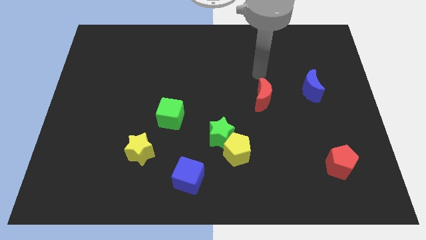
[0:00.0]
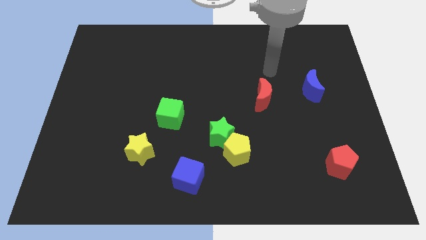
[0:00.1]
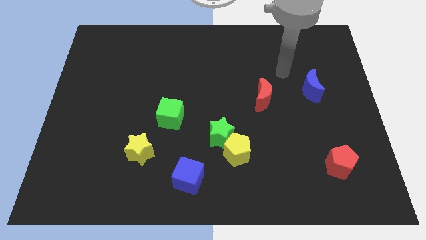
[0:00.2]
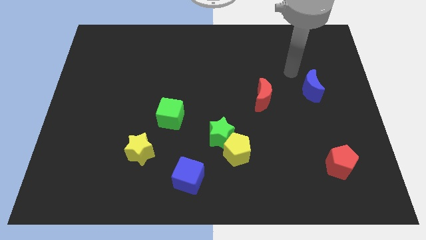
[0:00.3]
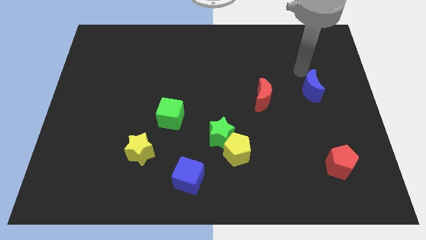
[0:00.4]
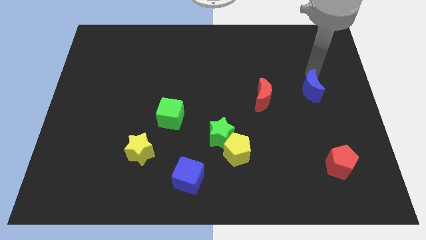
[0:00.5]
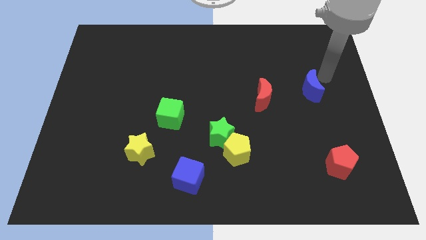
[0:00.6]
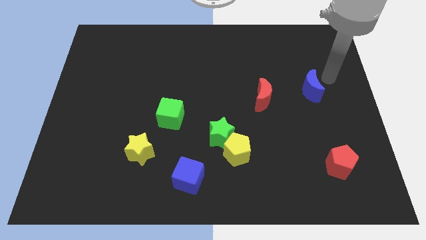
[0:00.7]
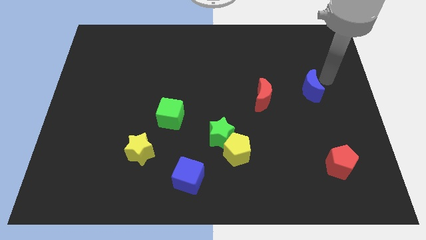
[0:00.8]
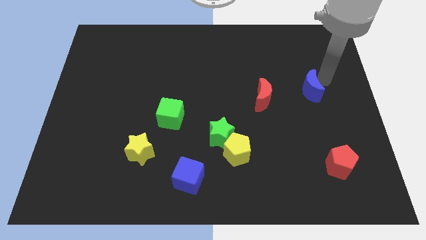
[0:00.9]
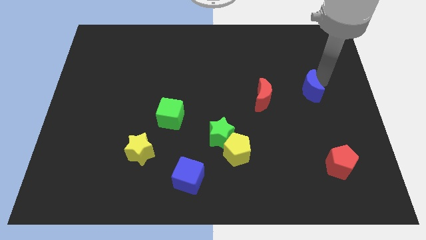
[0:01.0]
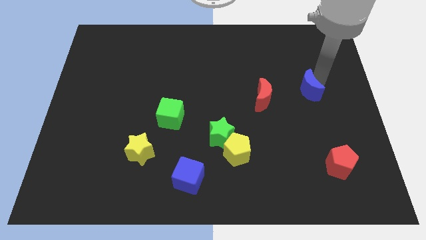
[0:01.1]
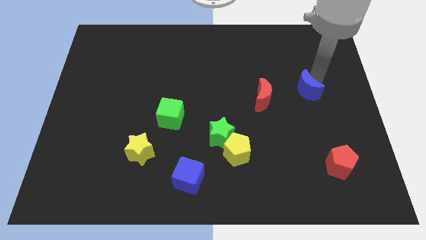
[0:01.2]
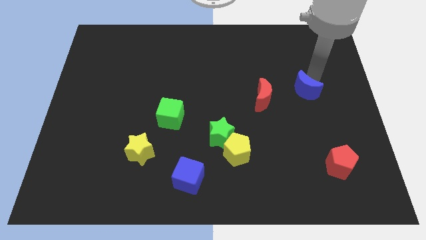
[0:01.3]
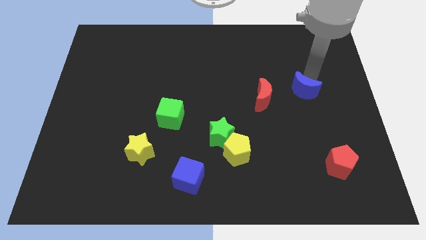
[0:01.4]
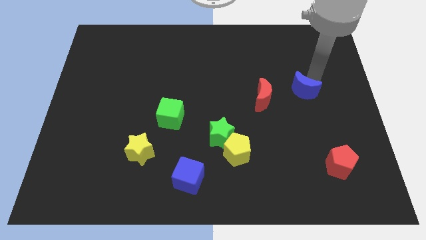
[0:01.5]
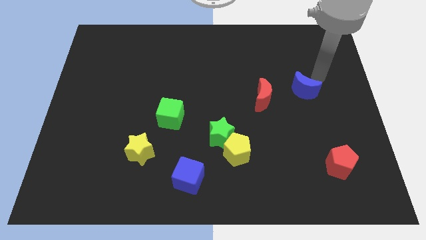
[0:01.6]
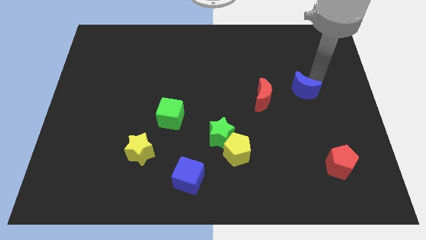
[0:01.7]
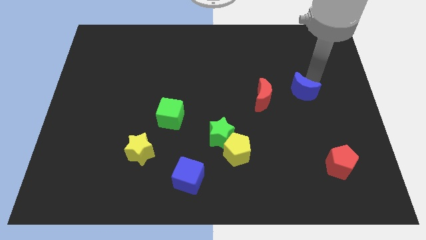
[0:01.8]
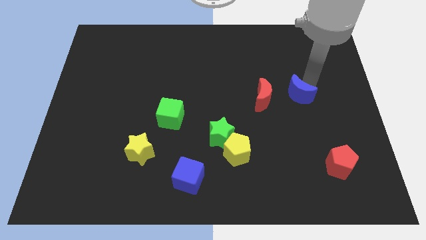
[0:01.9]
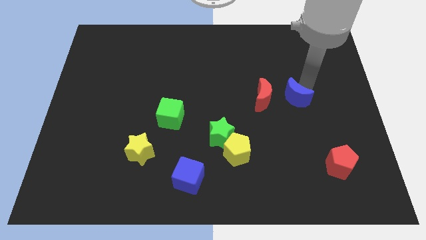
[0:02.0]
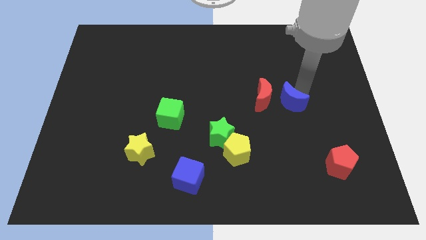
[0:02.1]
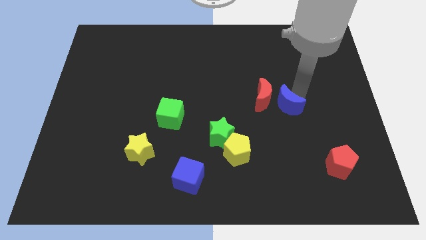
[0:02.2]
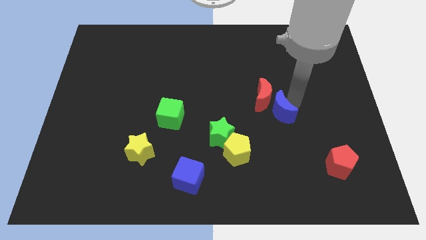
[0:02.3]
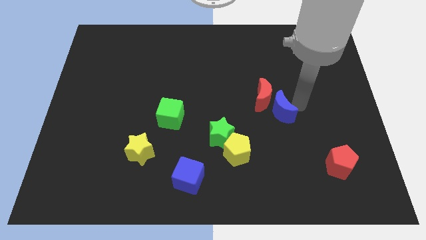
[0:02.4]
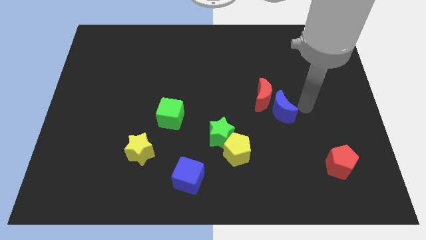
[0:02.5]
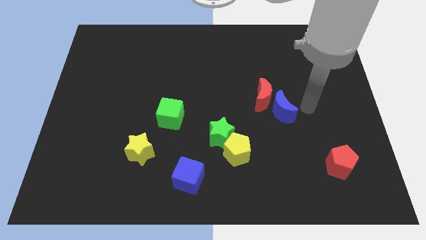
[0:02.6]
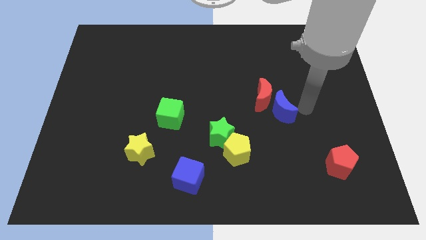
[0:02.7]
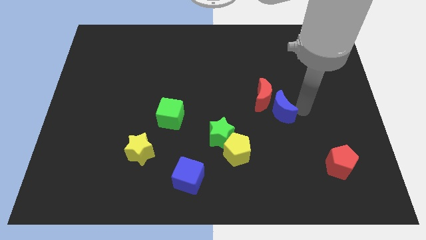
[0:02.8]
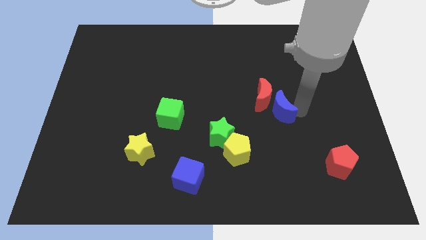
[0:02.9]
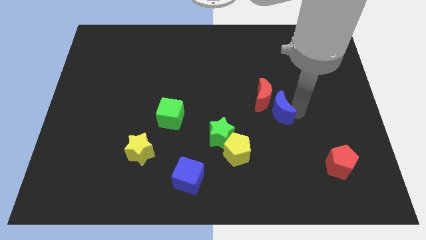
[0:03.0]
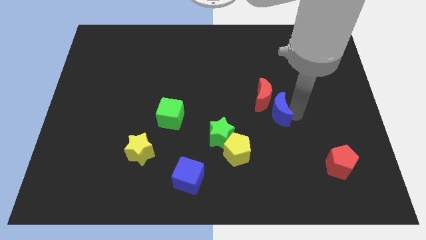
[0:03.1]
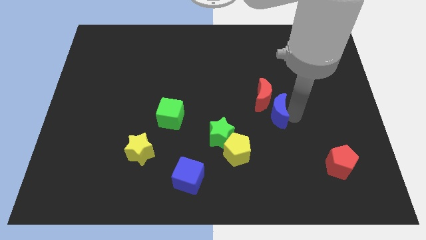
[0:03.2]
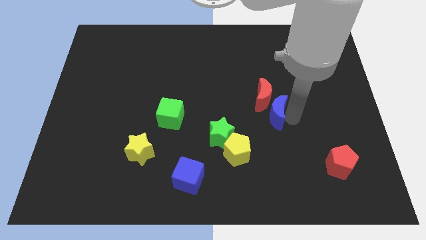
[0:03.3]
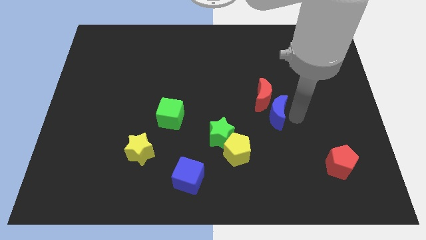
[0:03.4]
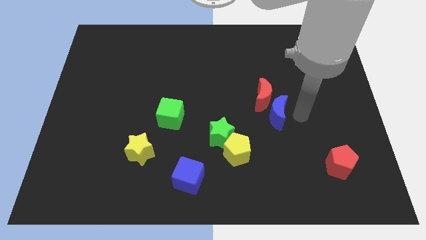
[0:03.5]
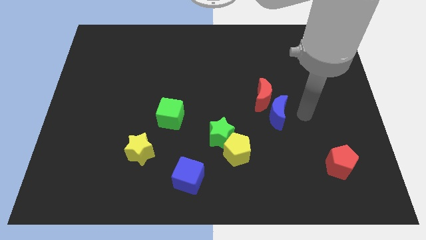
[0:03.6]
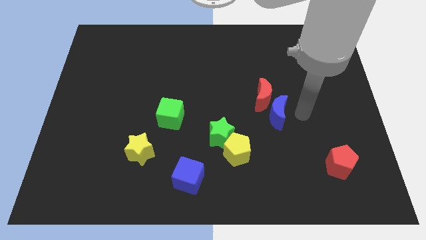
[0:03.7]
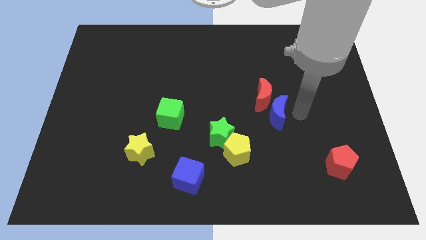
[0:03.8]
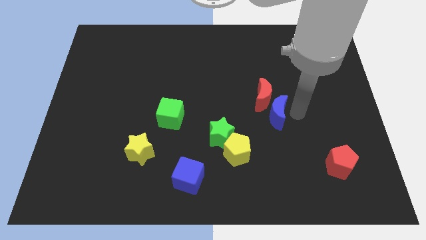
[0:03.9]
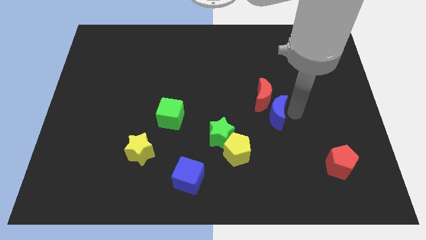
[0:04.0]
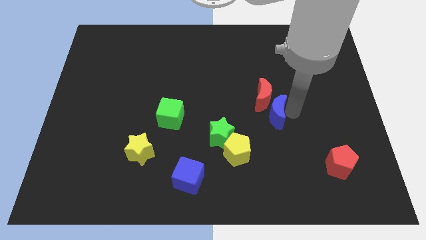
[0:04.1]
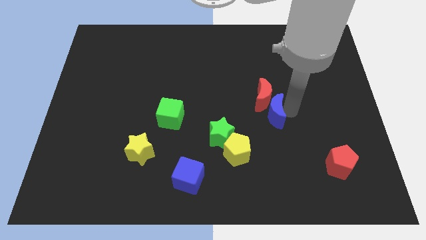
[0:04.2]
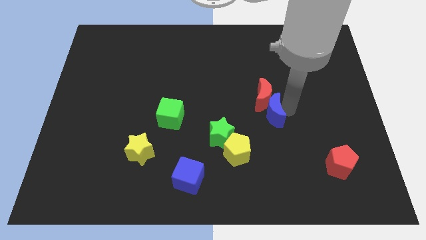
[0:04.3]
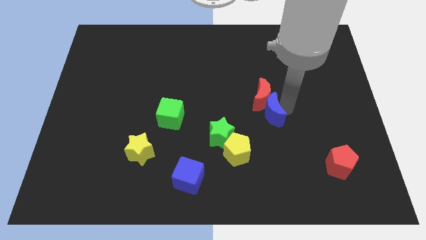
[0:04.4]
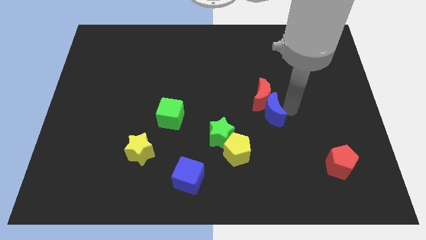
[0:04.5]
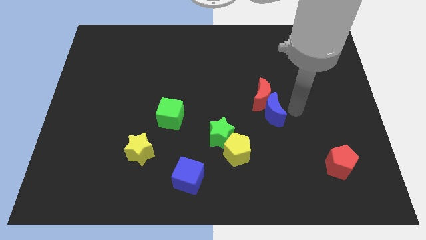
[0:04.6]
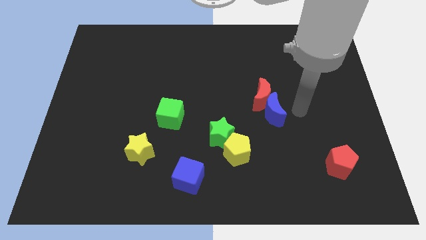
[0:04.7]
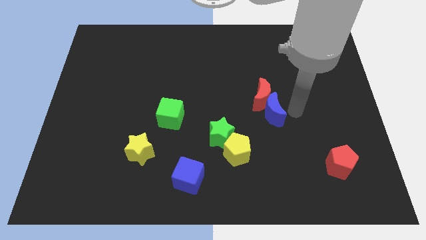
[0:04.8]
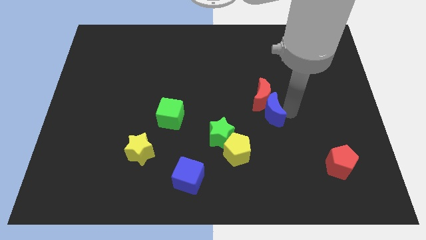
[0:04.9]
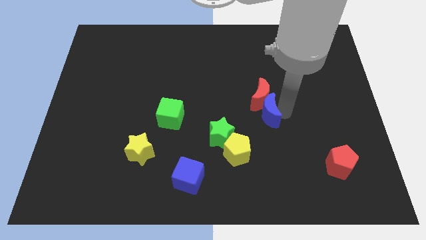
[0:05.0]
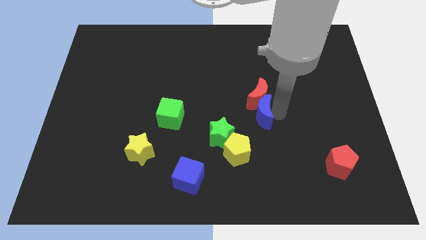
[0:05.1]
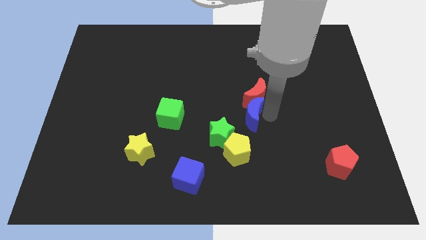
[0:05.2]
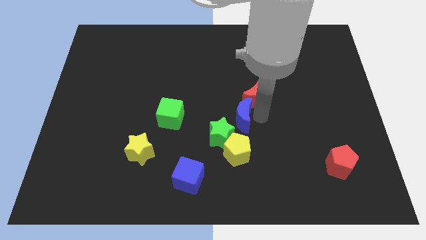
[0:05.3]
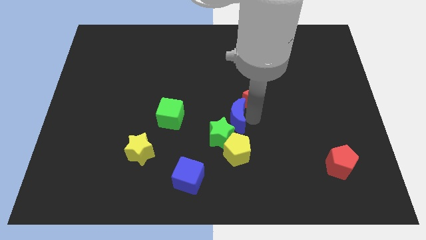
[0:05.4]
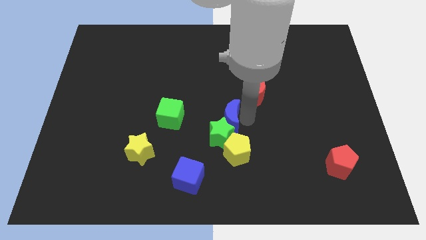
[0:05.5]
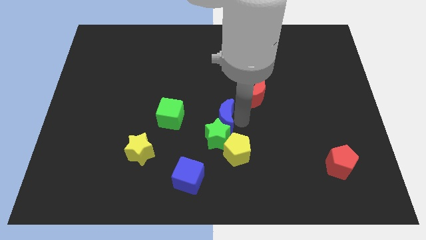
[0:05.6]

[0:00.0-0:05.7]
slide the blue moon to the top left of the yellow pentagon

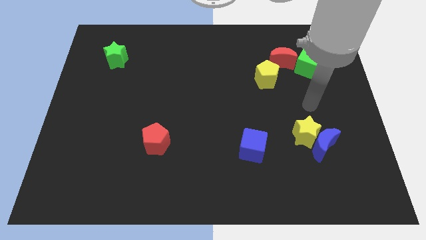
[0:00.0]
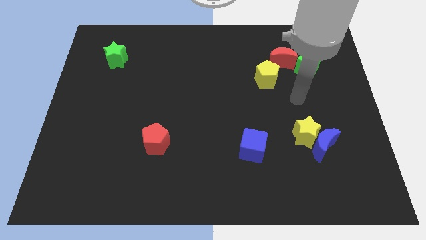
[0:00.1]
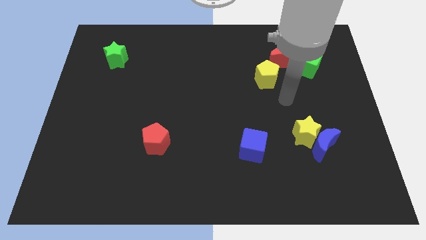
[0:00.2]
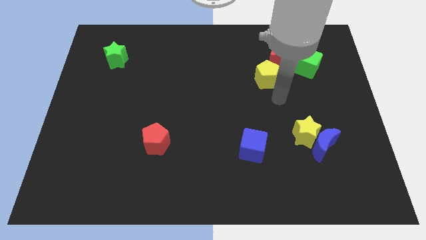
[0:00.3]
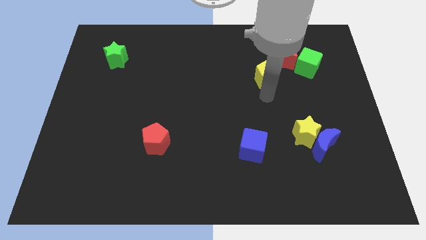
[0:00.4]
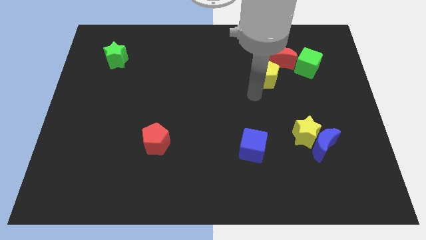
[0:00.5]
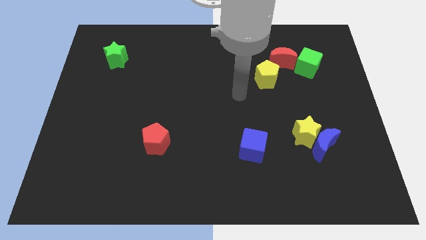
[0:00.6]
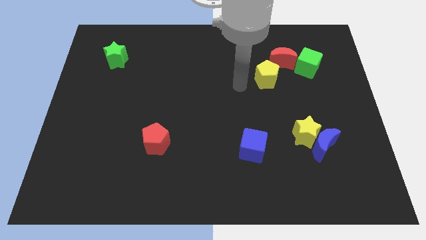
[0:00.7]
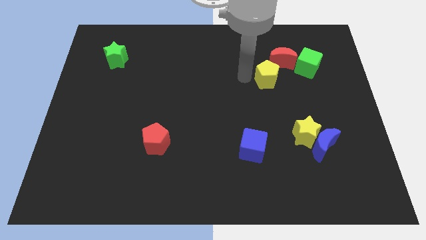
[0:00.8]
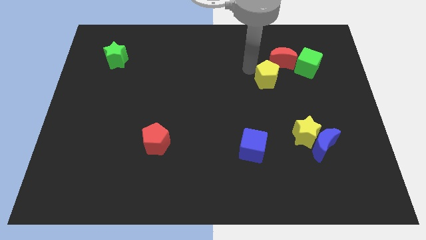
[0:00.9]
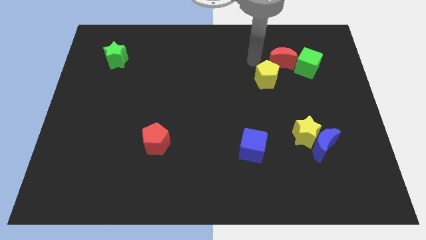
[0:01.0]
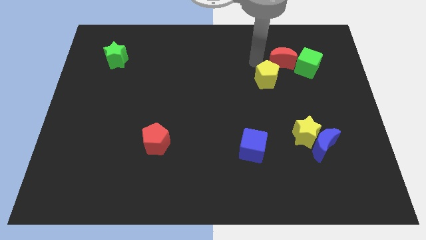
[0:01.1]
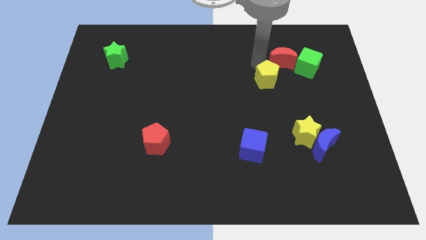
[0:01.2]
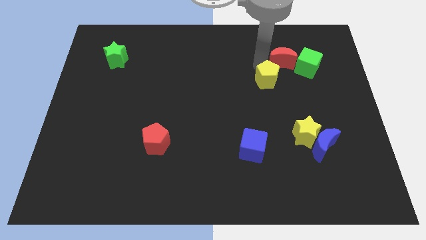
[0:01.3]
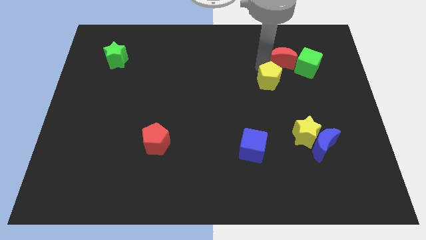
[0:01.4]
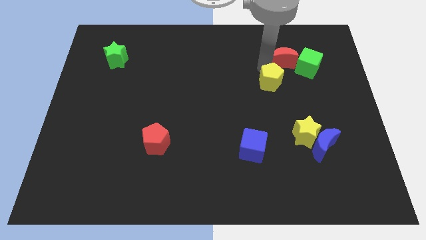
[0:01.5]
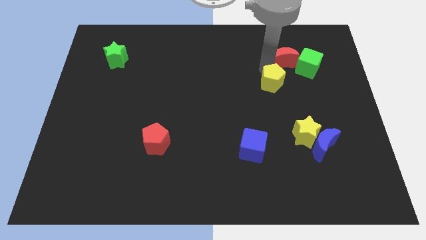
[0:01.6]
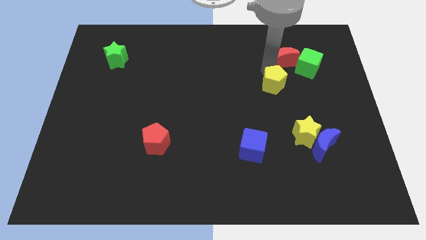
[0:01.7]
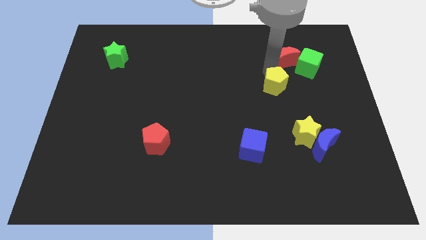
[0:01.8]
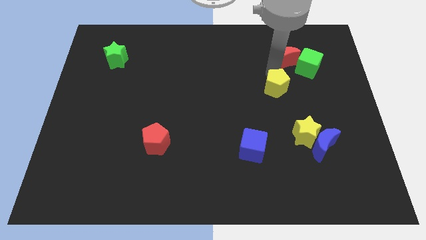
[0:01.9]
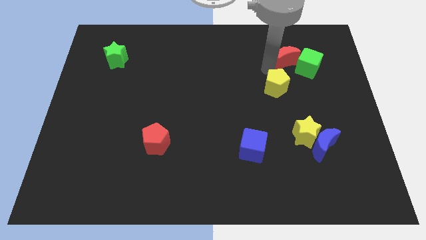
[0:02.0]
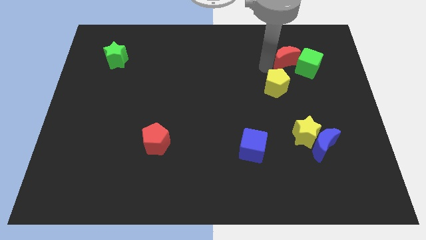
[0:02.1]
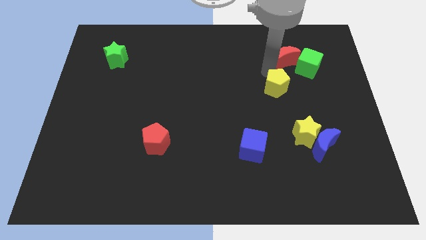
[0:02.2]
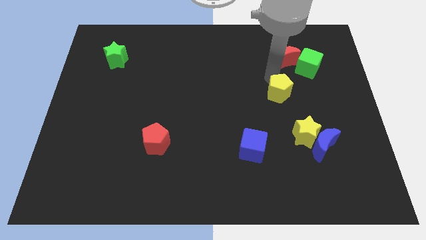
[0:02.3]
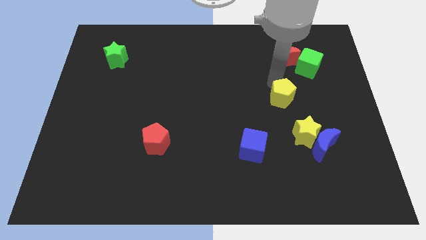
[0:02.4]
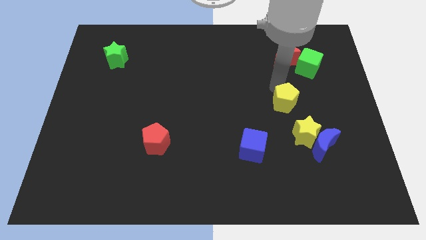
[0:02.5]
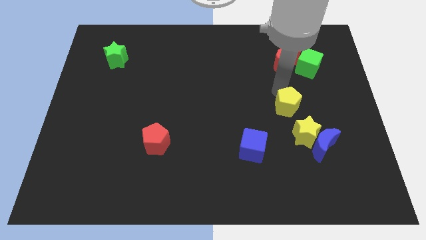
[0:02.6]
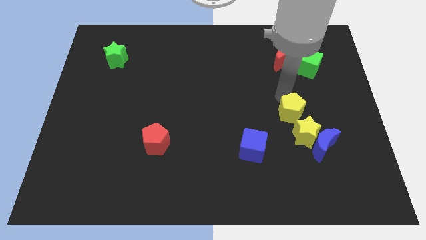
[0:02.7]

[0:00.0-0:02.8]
move the yellow pentagon to the top left of the blue moon

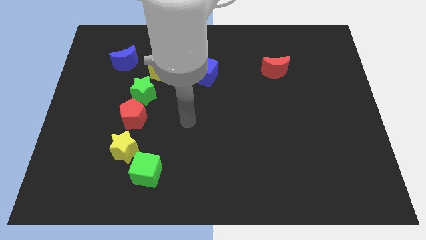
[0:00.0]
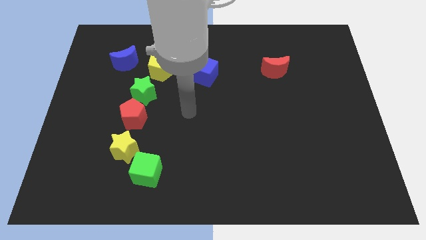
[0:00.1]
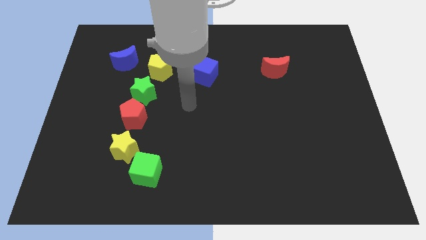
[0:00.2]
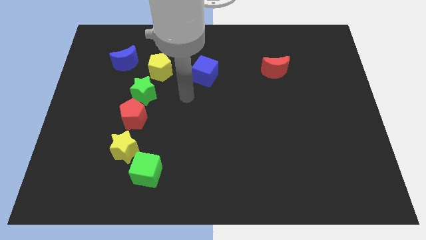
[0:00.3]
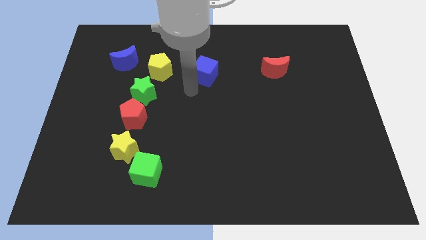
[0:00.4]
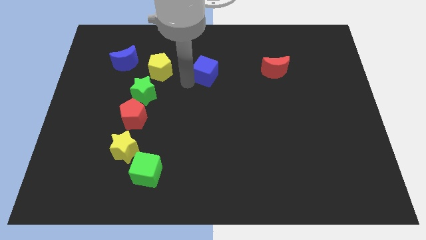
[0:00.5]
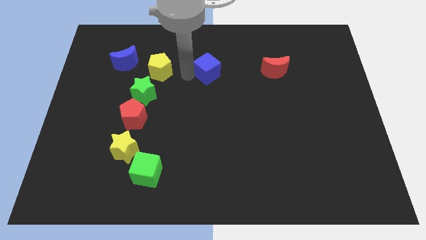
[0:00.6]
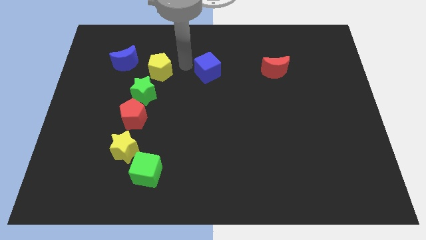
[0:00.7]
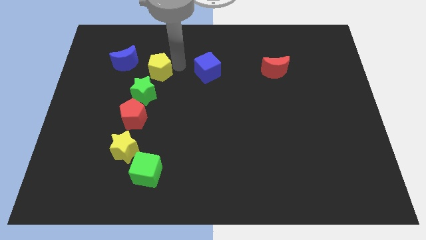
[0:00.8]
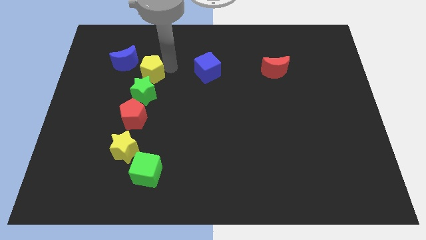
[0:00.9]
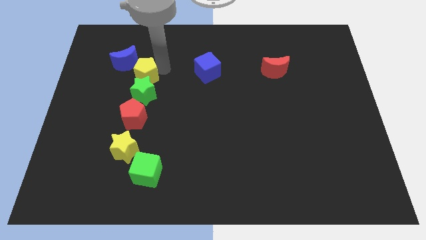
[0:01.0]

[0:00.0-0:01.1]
move the yellow pentagon to the top left side of the green star
